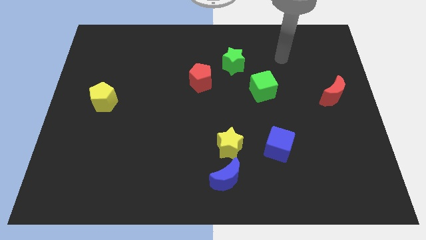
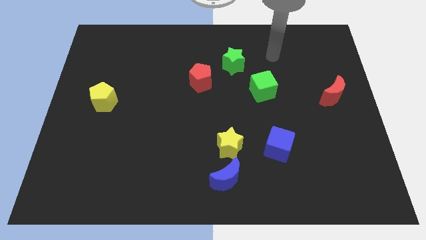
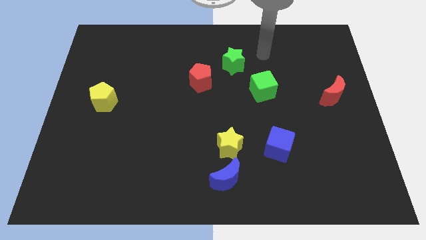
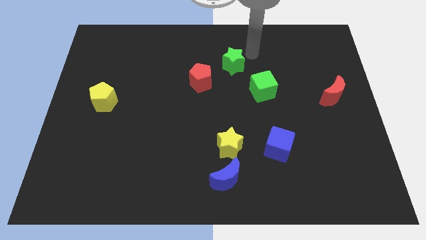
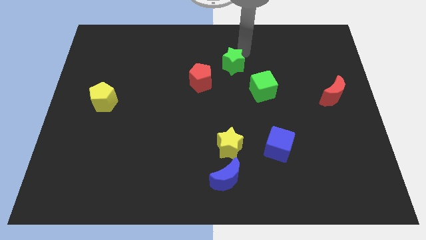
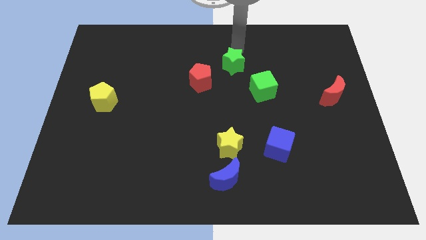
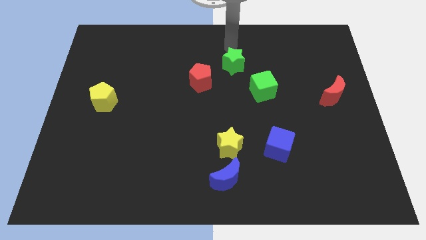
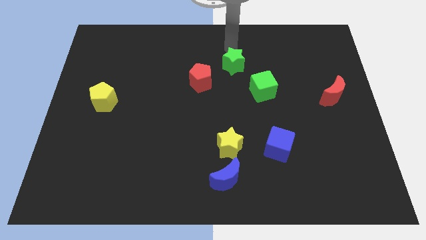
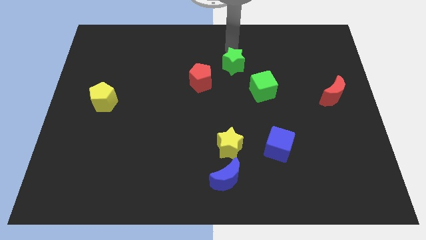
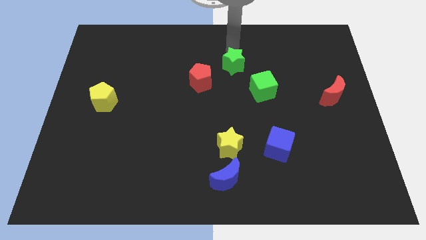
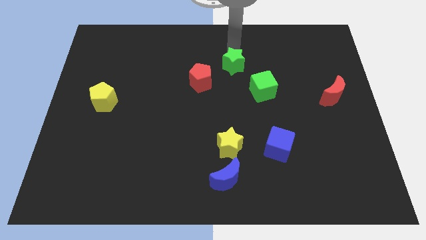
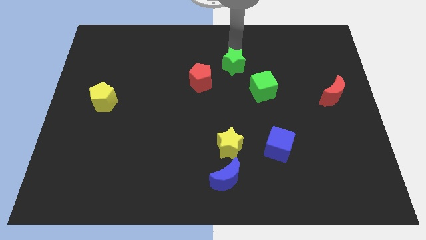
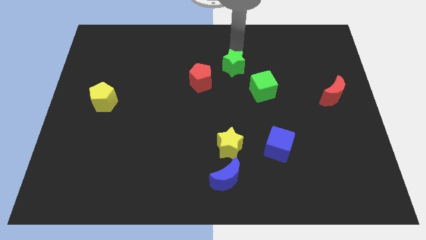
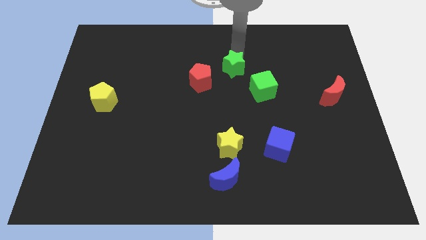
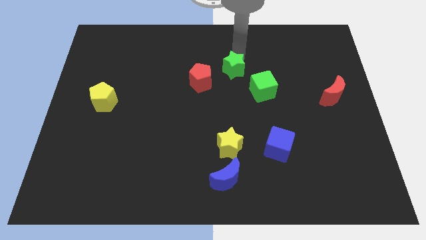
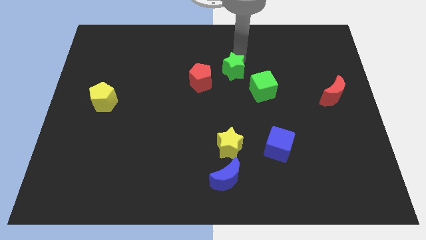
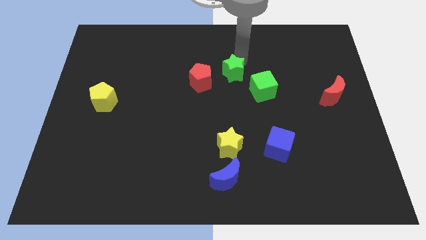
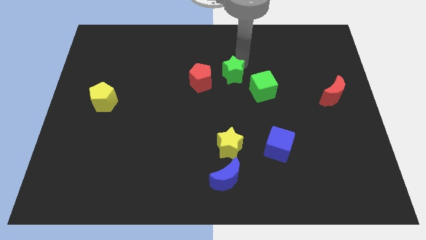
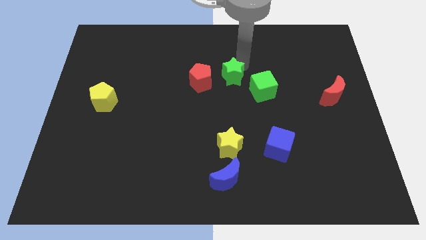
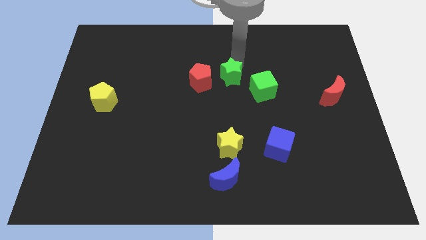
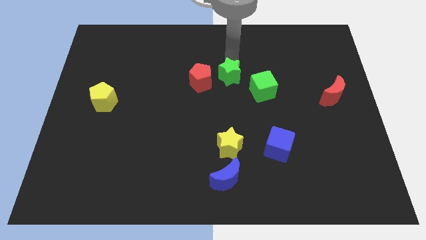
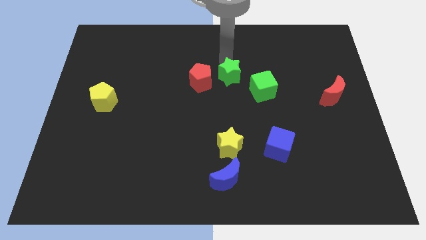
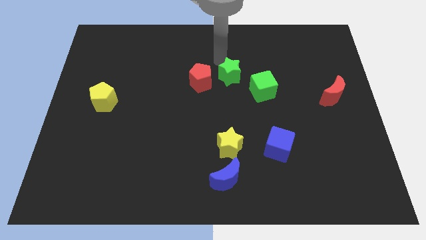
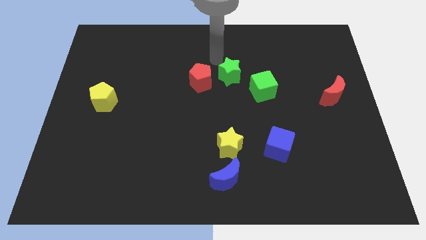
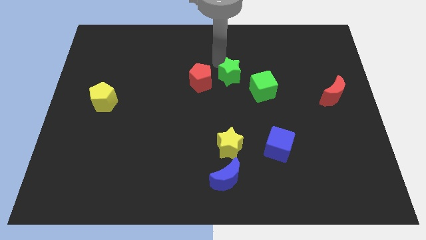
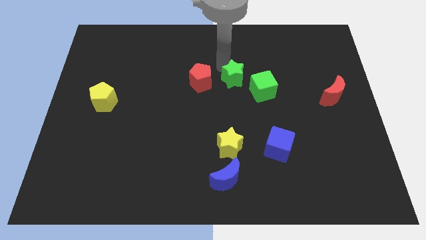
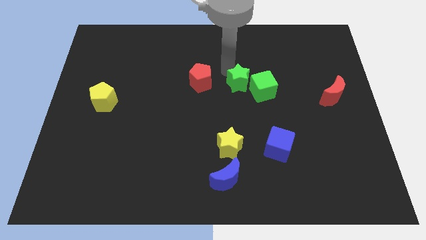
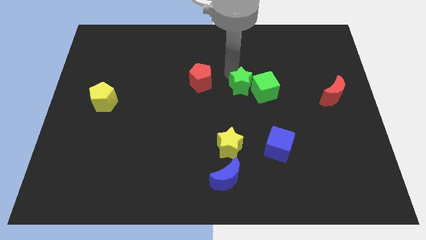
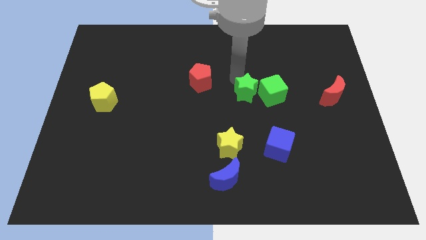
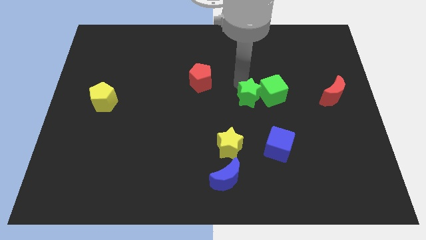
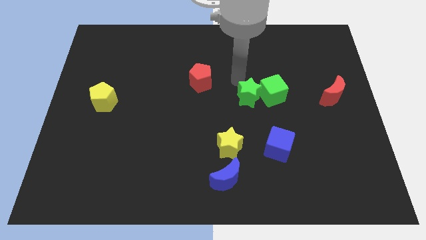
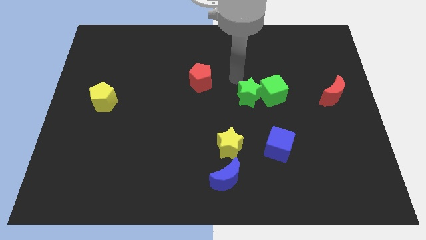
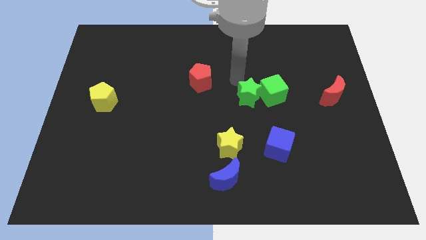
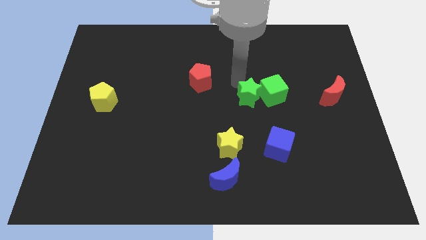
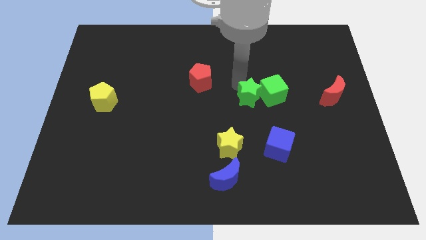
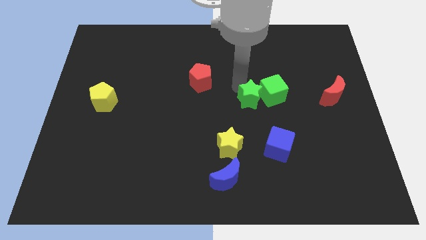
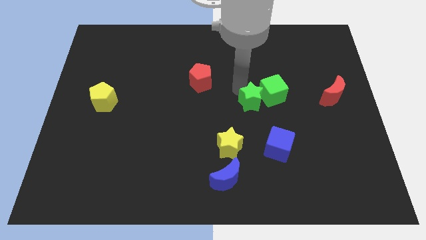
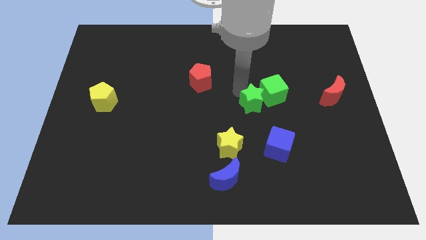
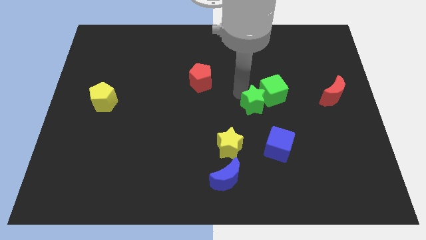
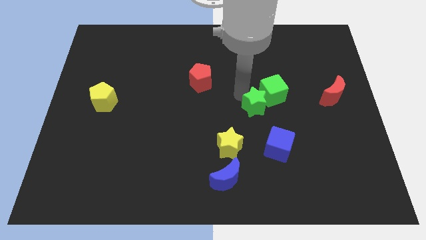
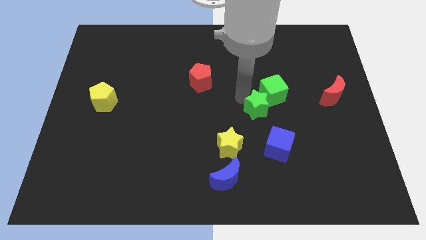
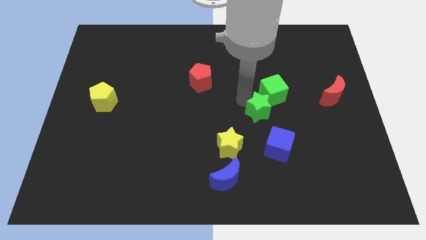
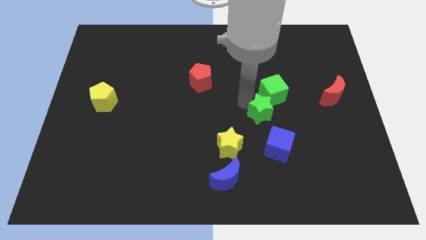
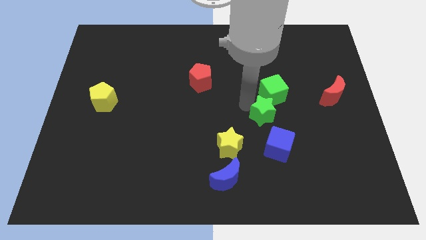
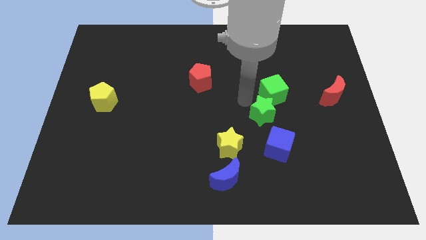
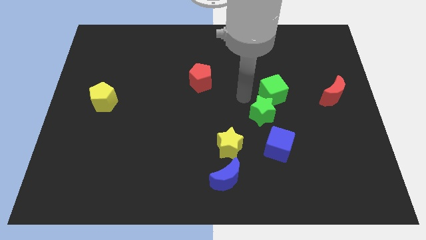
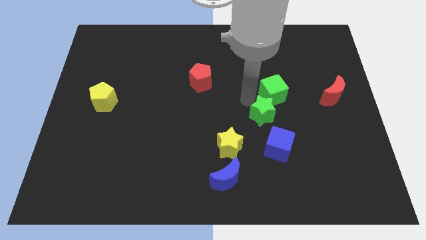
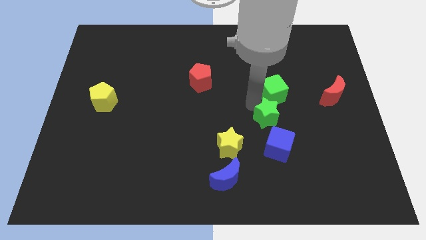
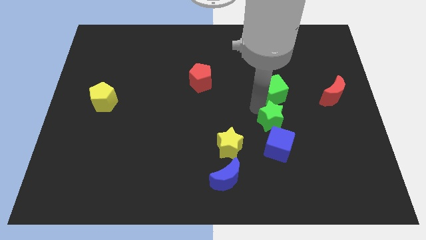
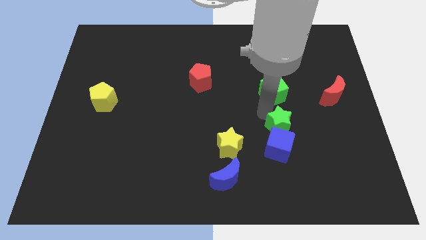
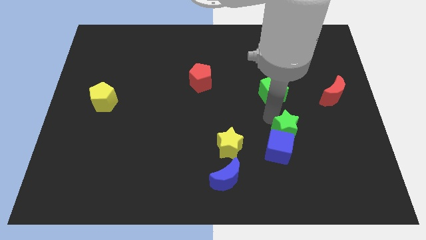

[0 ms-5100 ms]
move the green star to the right of the yellow star

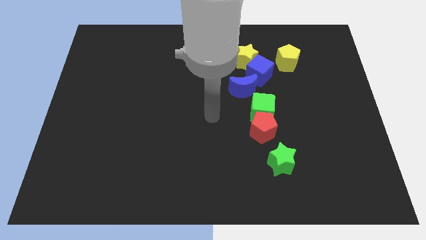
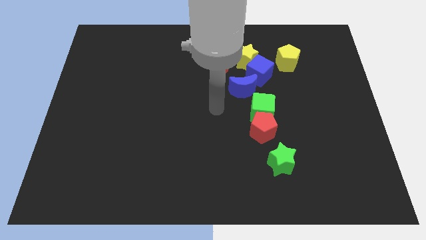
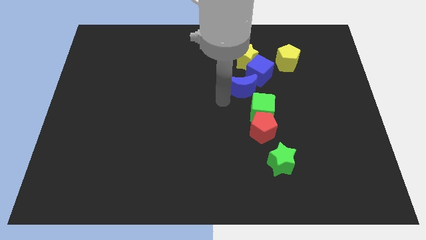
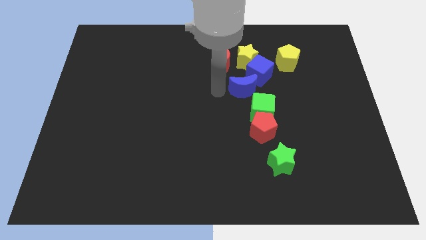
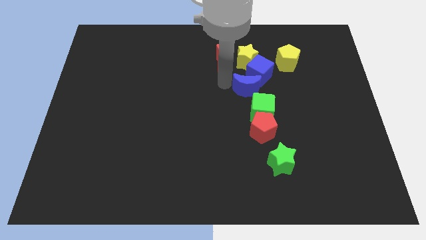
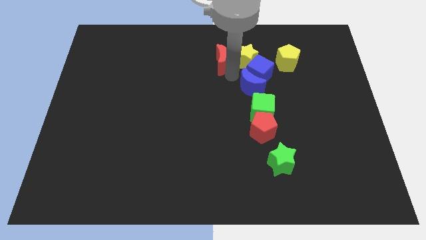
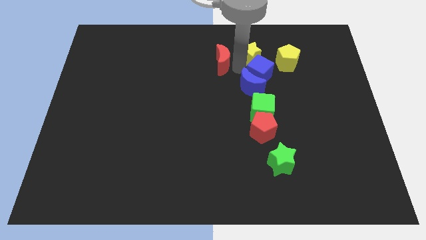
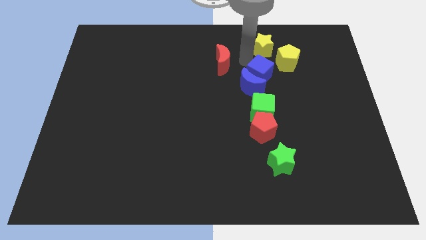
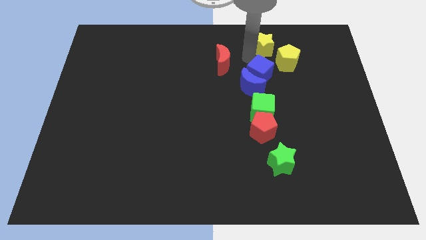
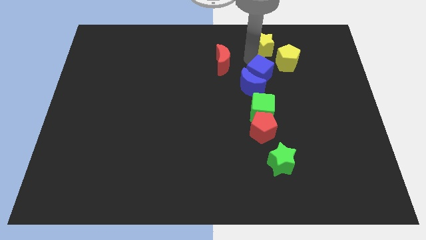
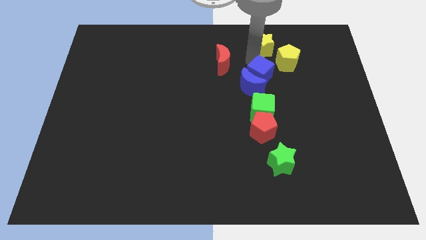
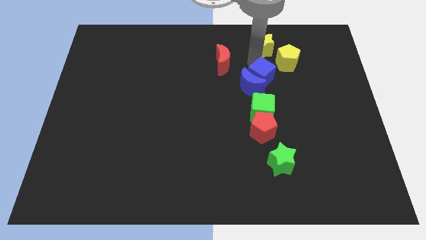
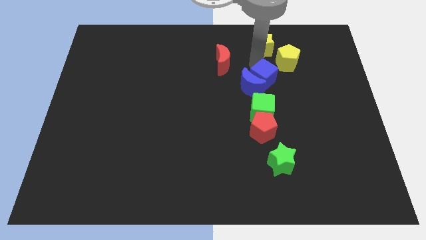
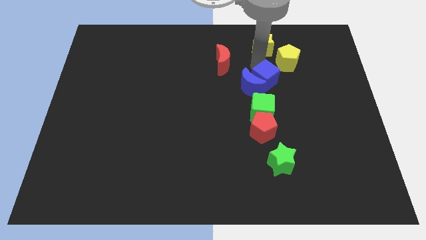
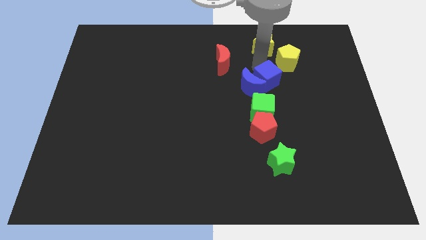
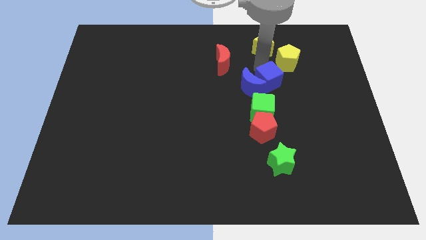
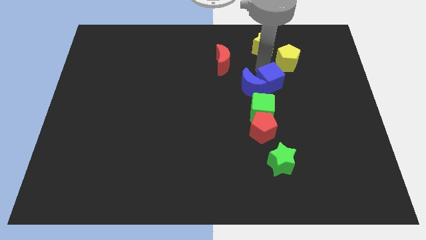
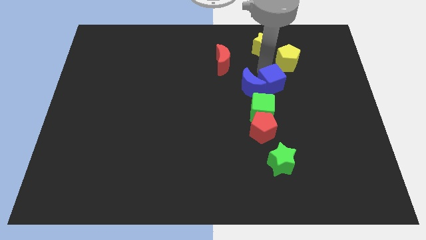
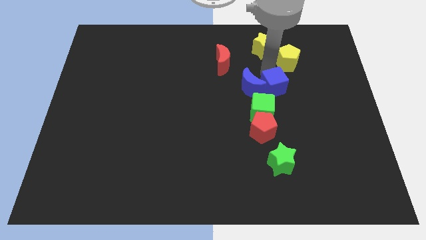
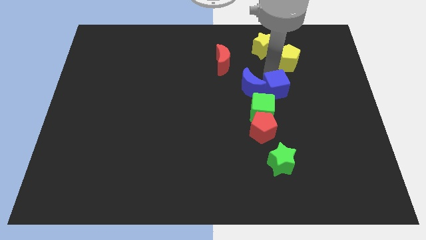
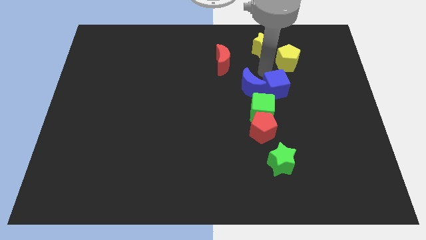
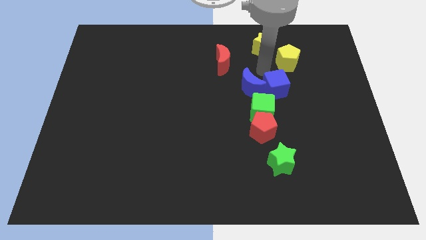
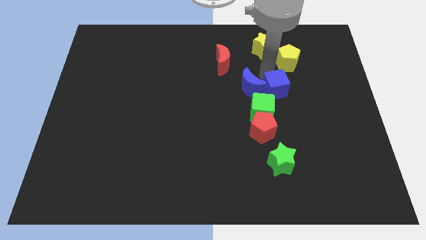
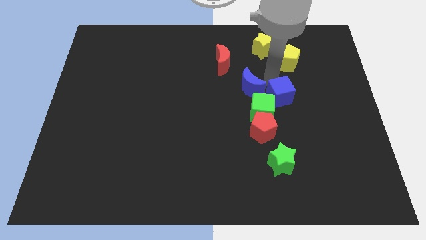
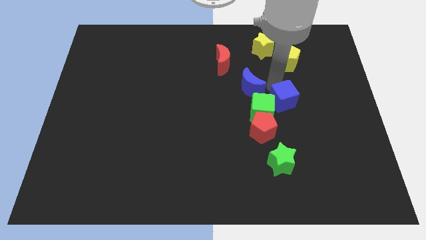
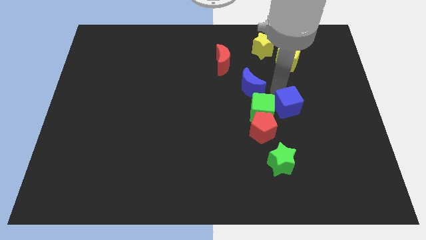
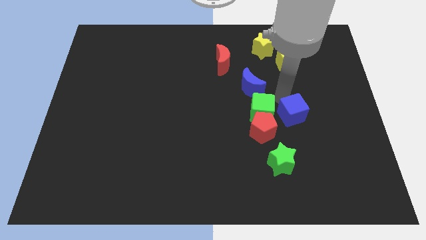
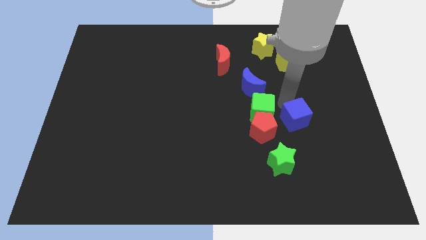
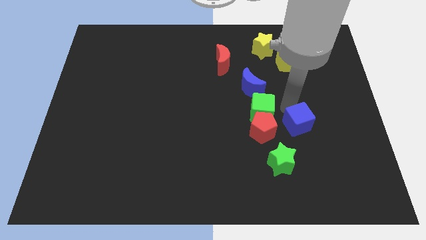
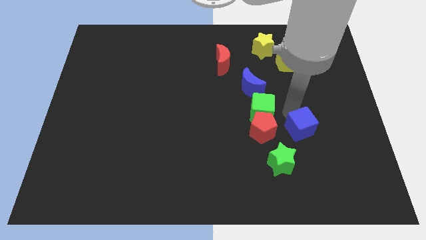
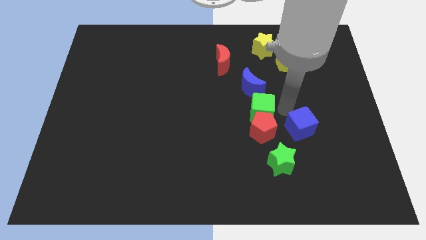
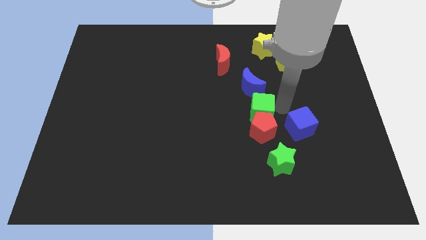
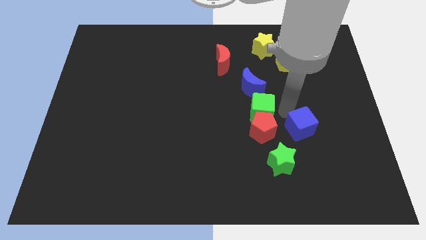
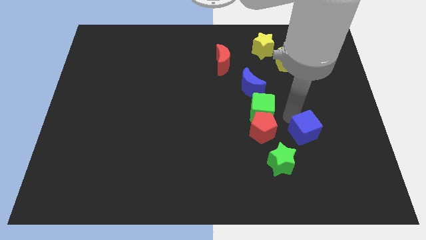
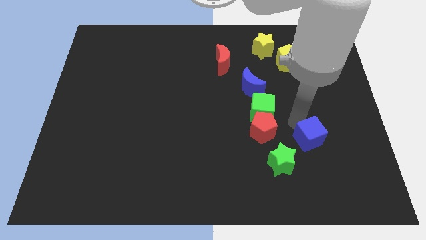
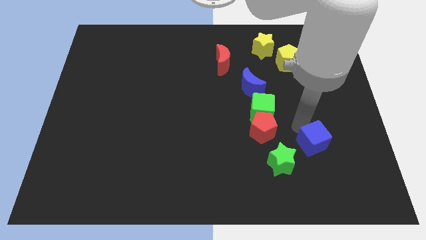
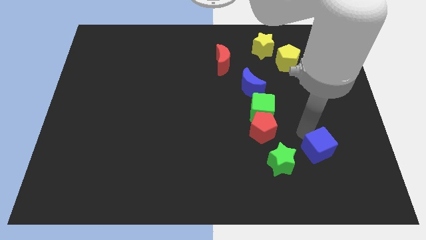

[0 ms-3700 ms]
put the blue cube to the right side of the green star
